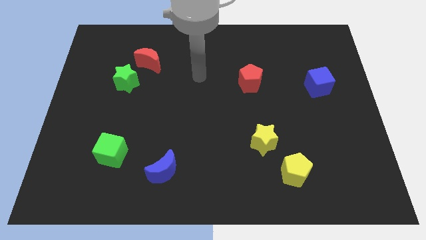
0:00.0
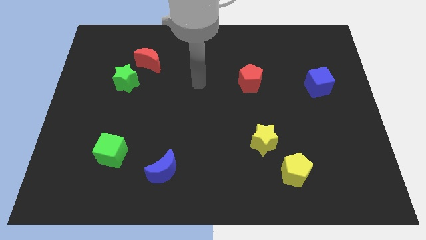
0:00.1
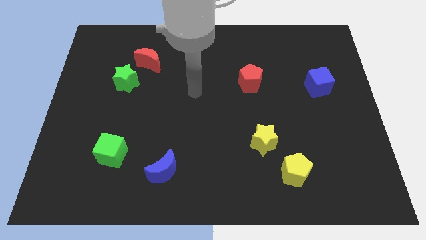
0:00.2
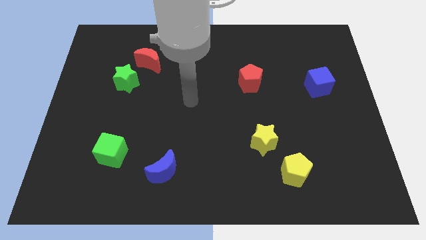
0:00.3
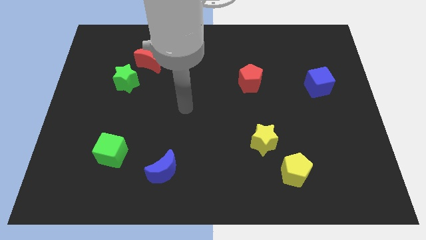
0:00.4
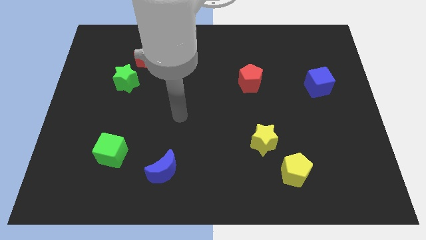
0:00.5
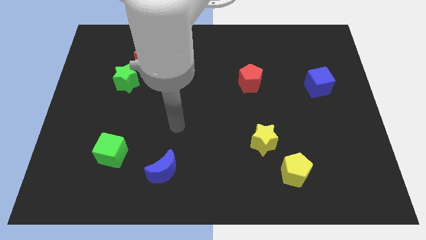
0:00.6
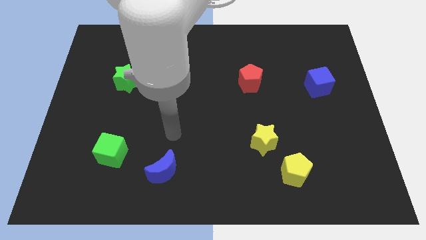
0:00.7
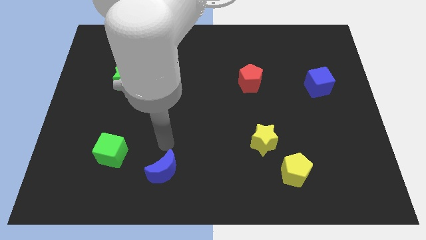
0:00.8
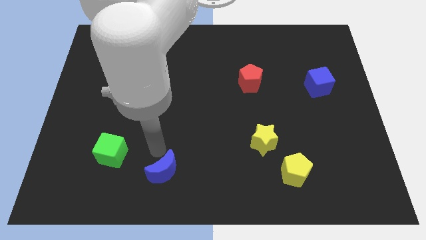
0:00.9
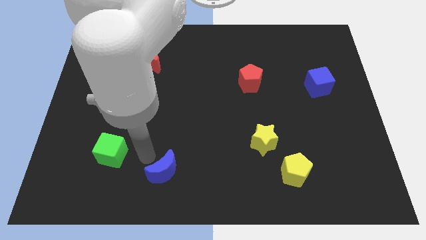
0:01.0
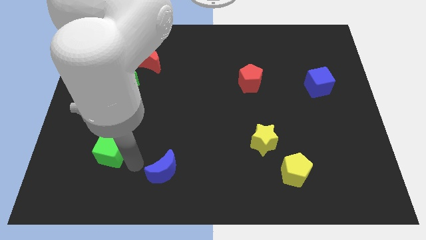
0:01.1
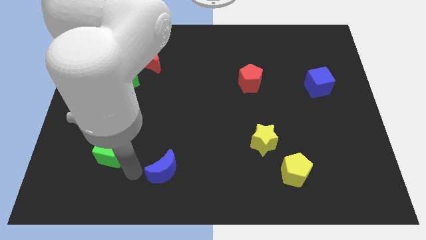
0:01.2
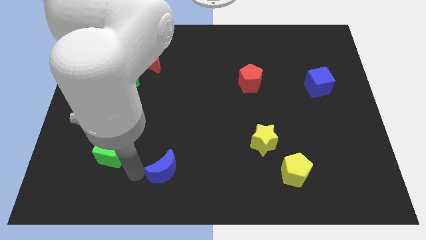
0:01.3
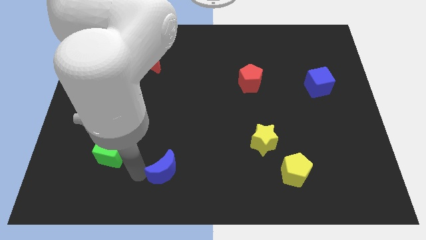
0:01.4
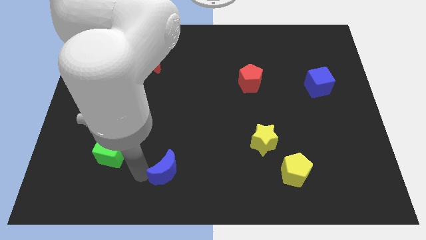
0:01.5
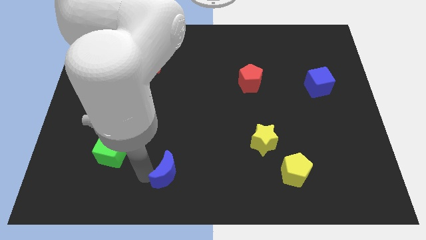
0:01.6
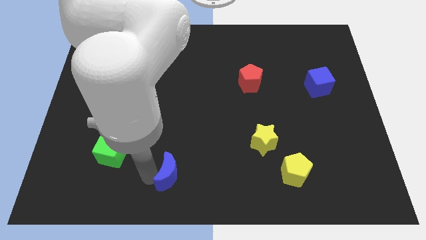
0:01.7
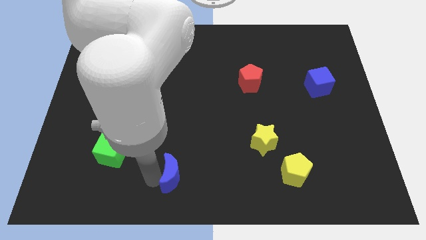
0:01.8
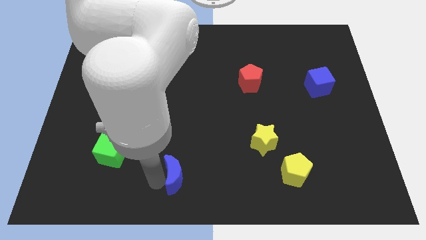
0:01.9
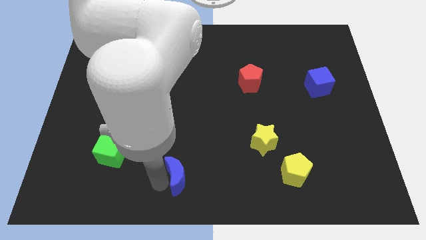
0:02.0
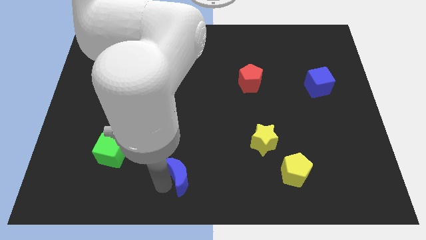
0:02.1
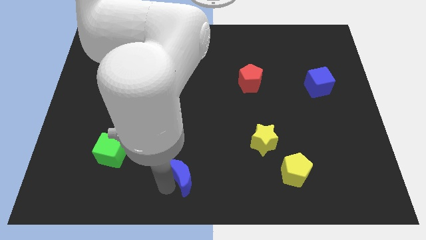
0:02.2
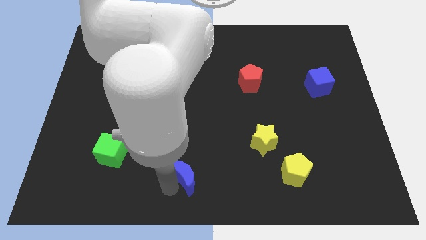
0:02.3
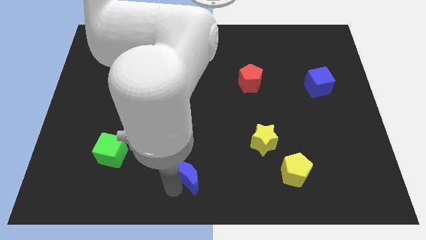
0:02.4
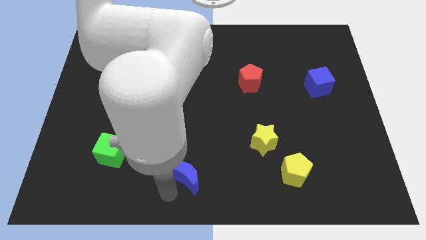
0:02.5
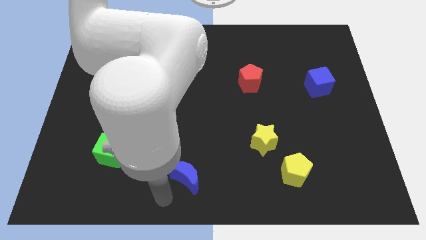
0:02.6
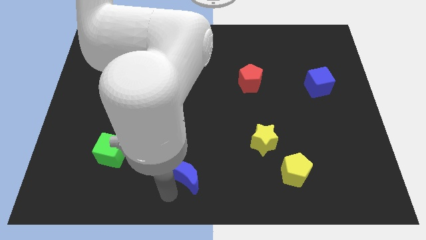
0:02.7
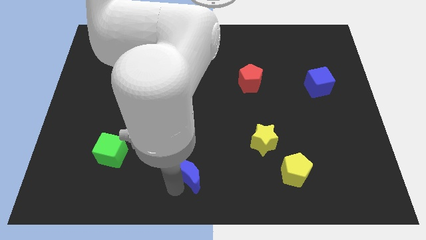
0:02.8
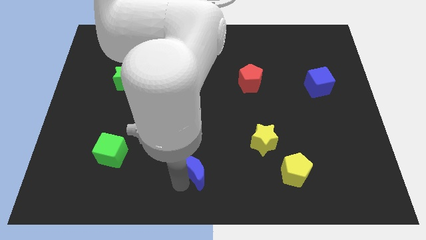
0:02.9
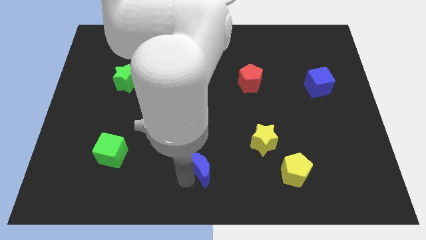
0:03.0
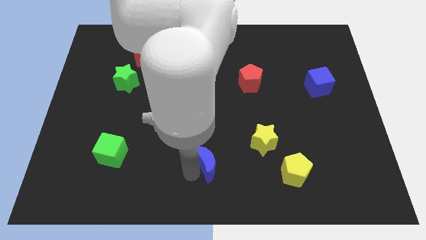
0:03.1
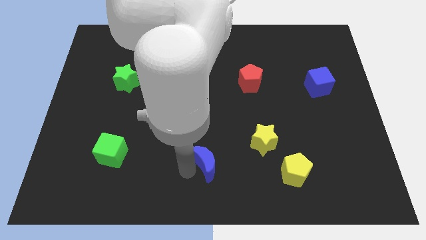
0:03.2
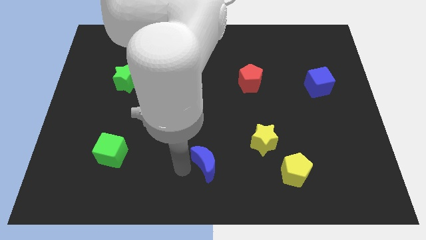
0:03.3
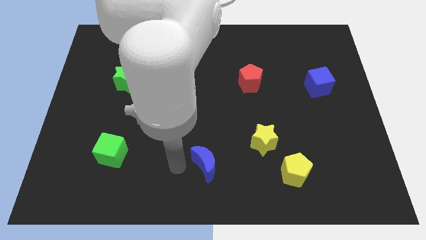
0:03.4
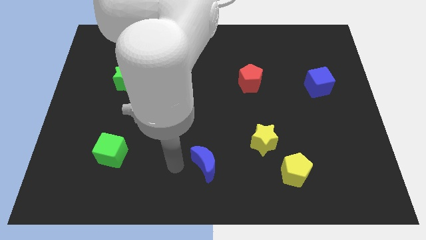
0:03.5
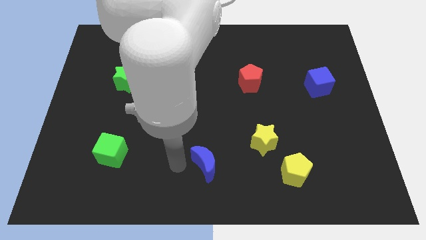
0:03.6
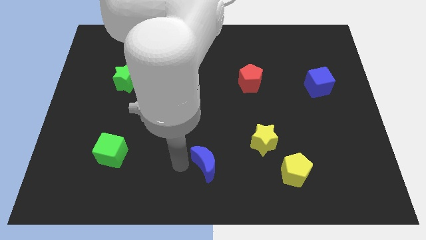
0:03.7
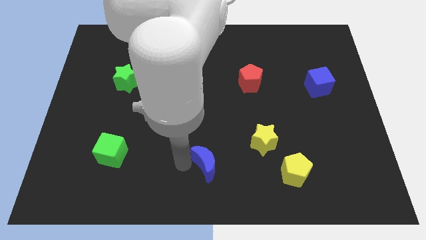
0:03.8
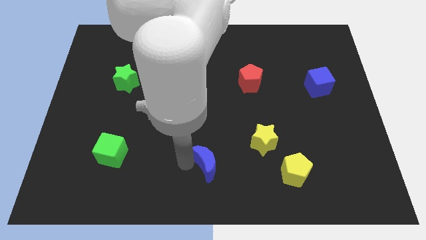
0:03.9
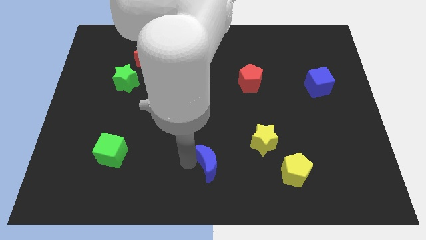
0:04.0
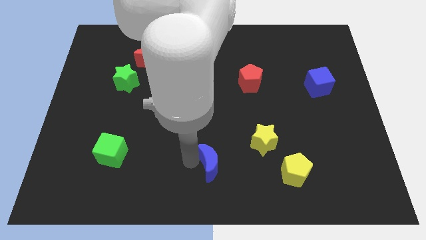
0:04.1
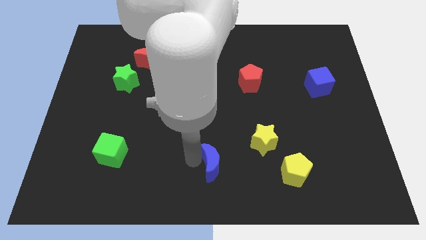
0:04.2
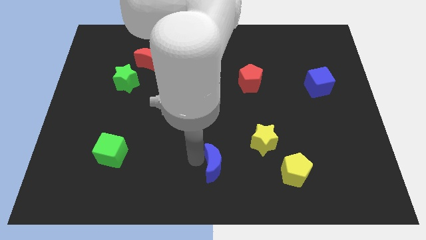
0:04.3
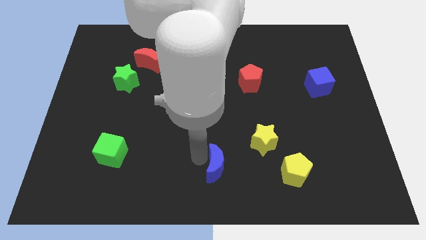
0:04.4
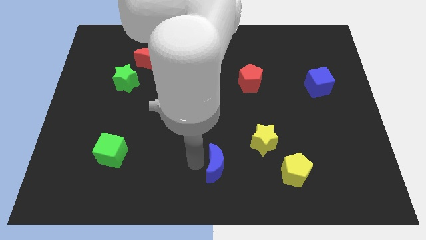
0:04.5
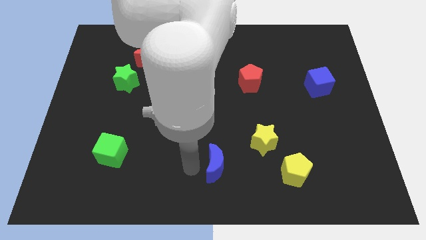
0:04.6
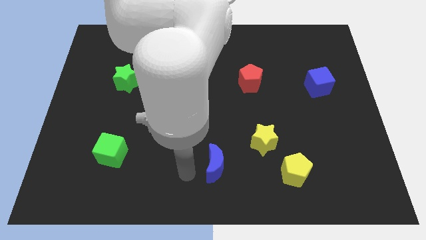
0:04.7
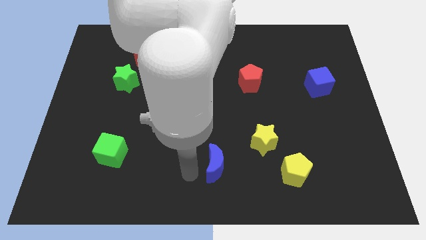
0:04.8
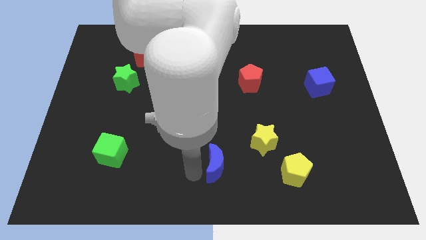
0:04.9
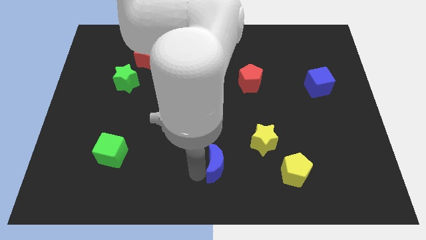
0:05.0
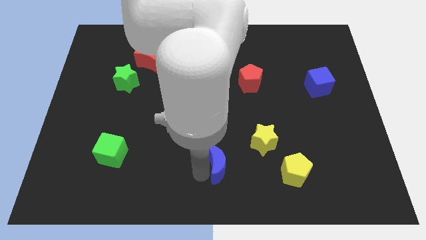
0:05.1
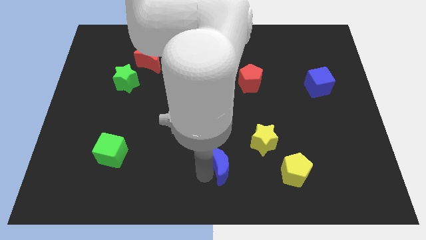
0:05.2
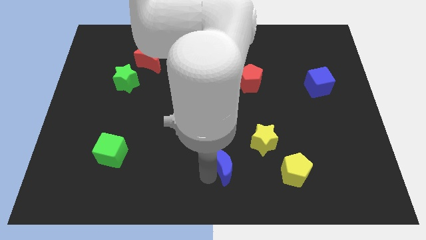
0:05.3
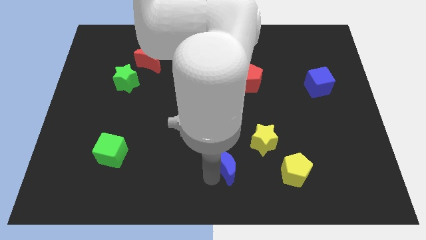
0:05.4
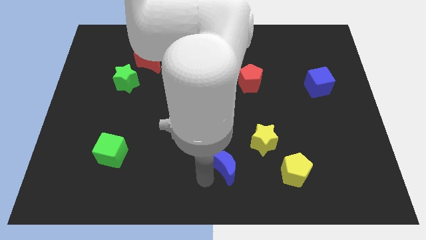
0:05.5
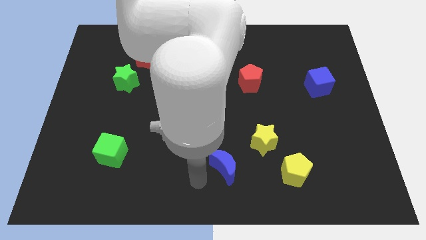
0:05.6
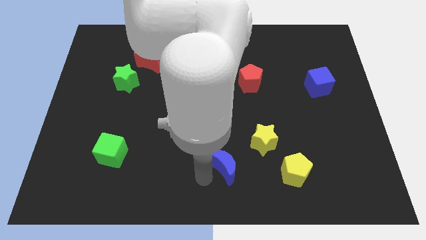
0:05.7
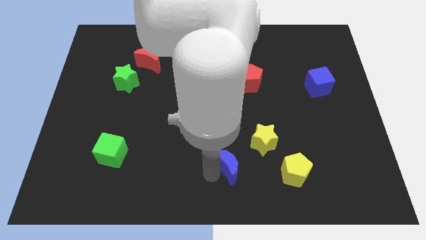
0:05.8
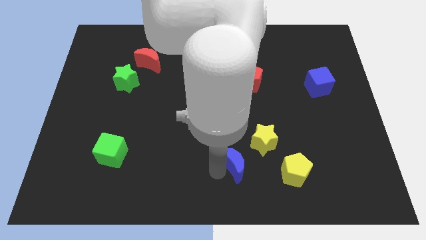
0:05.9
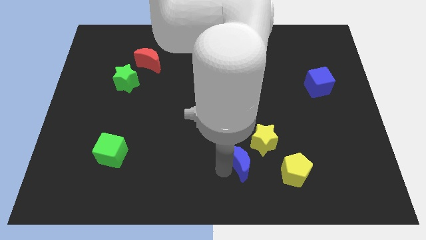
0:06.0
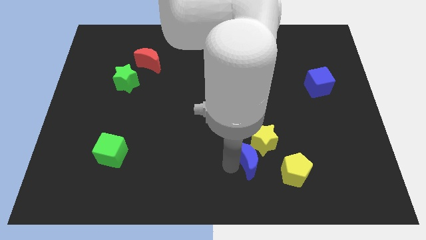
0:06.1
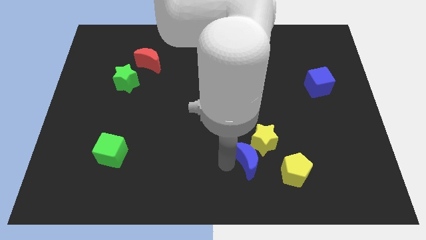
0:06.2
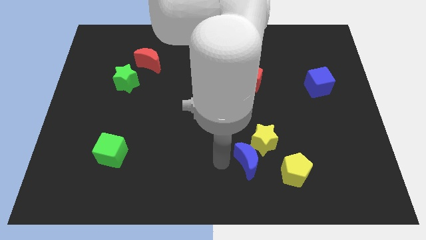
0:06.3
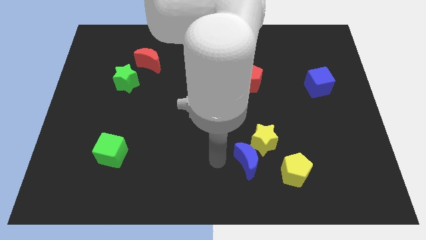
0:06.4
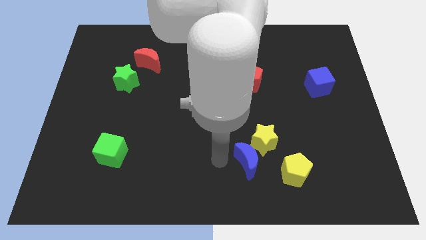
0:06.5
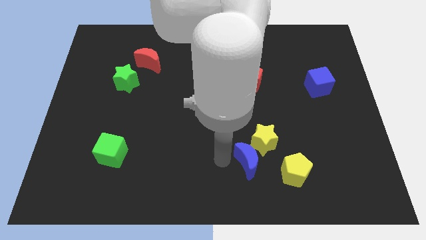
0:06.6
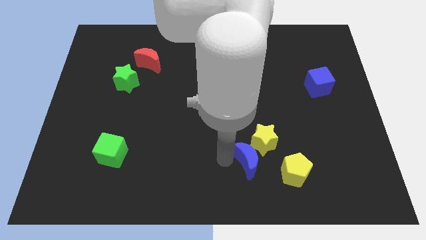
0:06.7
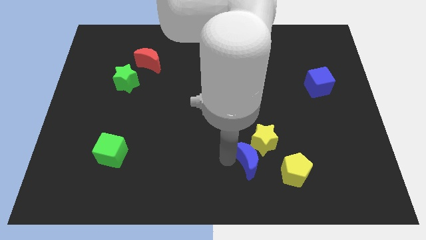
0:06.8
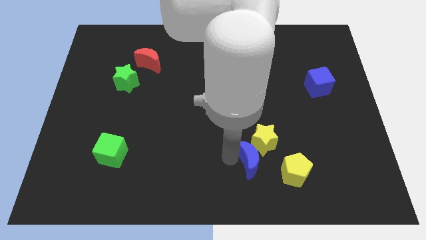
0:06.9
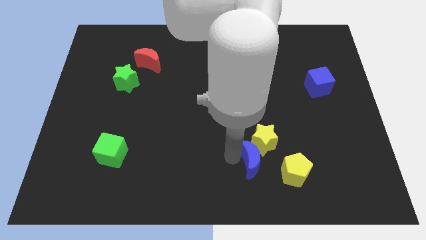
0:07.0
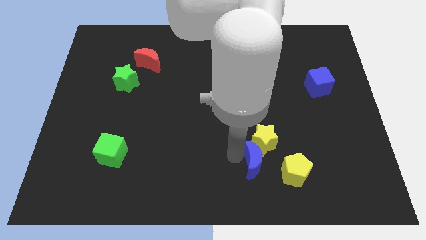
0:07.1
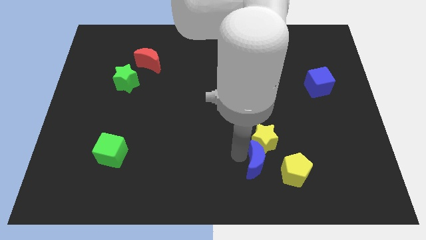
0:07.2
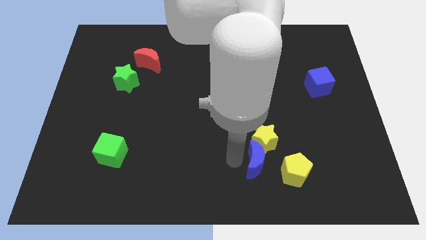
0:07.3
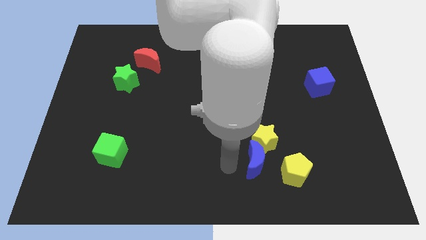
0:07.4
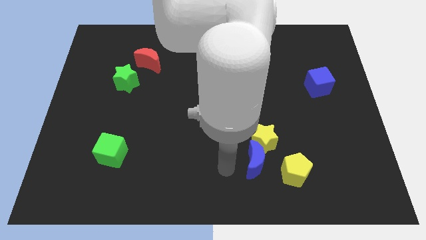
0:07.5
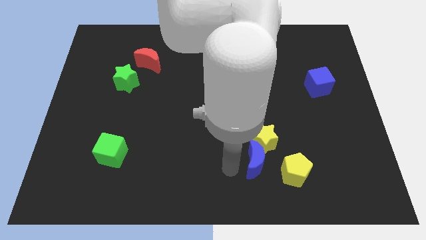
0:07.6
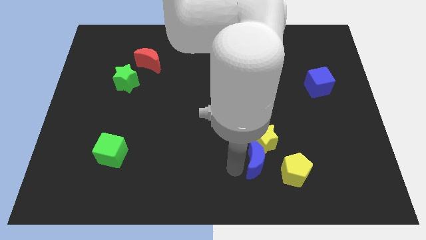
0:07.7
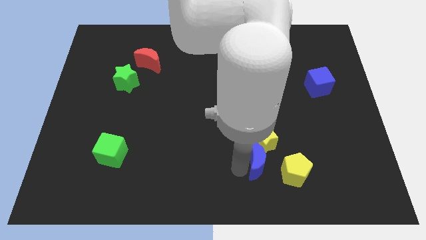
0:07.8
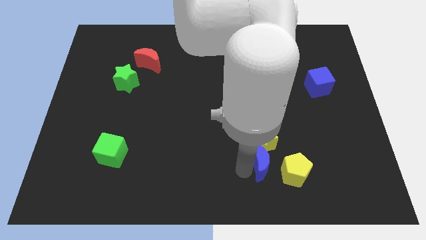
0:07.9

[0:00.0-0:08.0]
push the blue moon right
